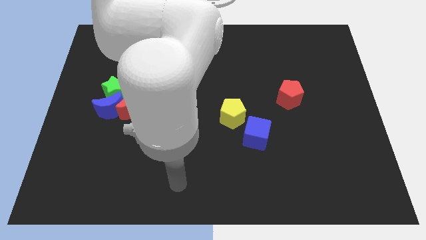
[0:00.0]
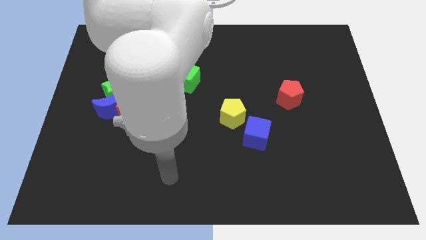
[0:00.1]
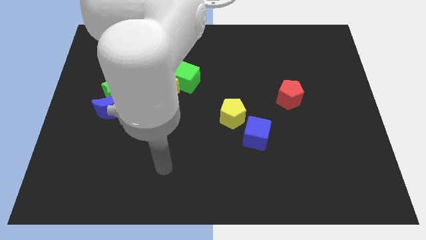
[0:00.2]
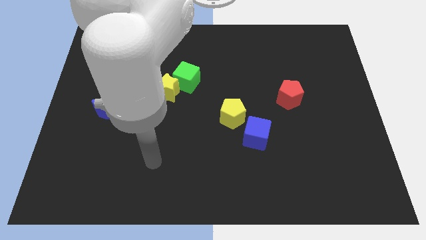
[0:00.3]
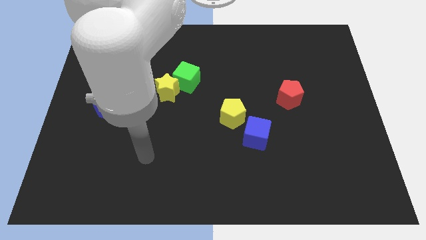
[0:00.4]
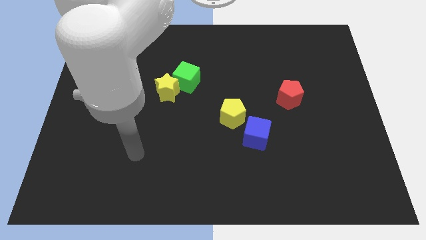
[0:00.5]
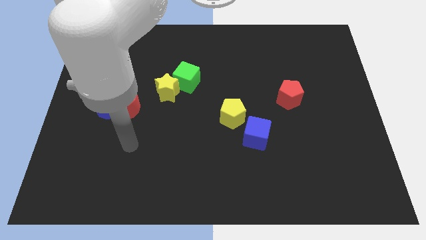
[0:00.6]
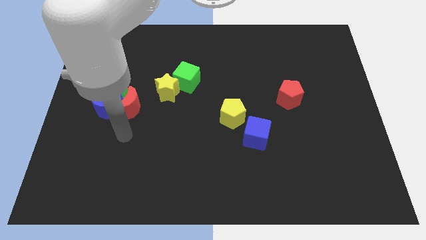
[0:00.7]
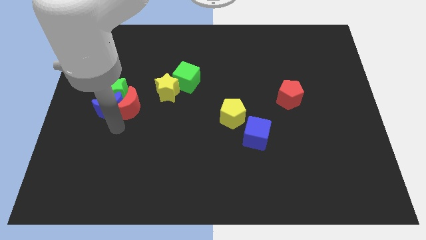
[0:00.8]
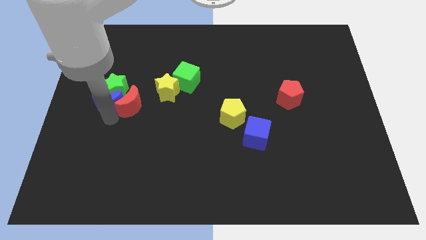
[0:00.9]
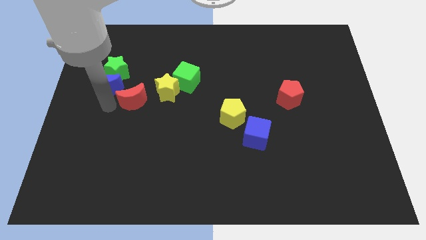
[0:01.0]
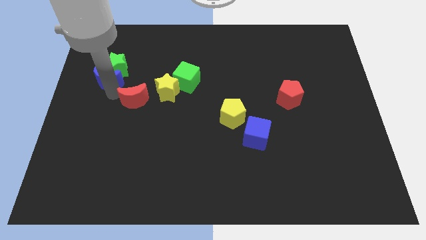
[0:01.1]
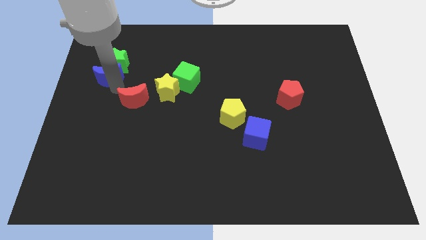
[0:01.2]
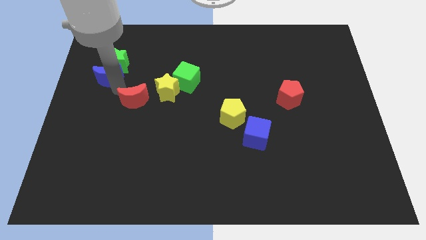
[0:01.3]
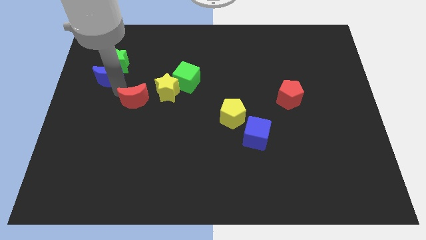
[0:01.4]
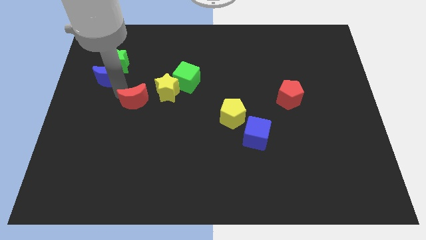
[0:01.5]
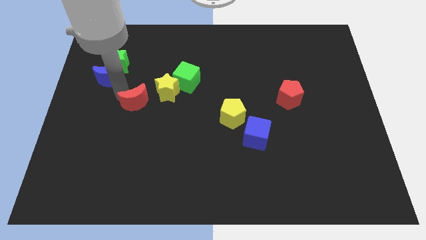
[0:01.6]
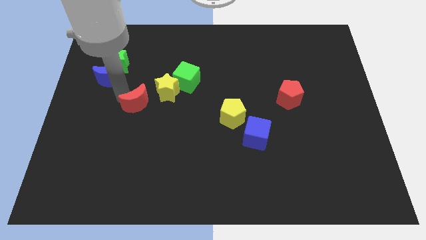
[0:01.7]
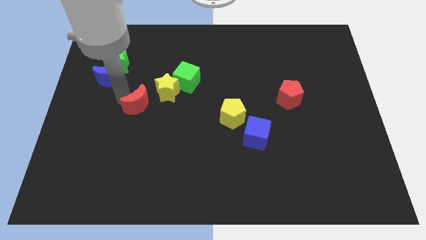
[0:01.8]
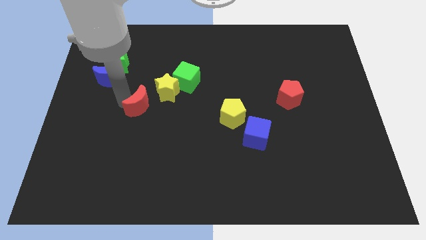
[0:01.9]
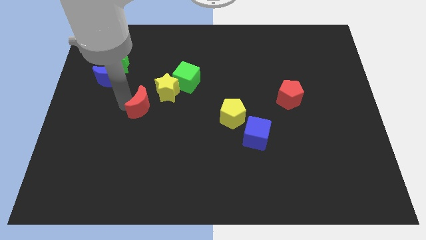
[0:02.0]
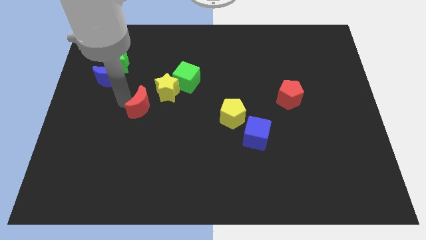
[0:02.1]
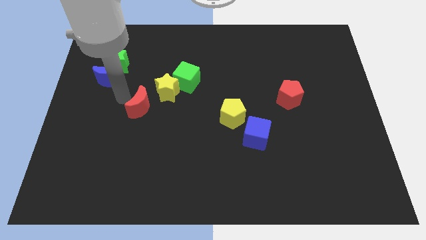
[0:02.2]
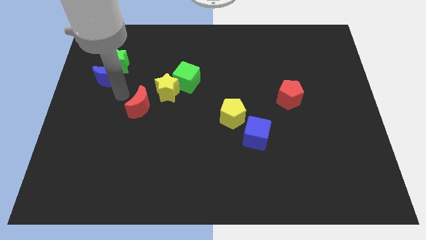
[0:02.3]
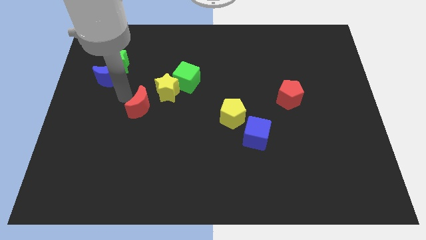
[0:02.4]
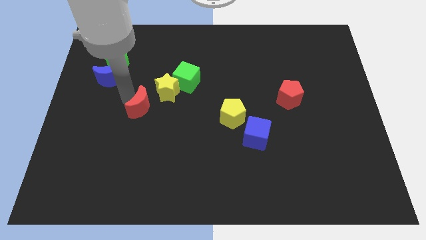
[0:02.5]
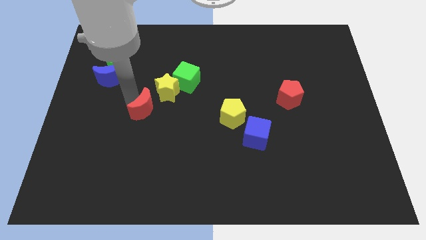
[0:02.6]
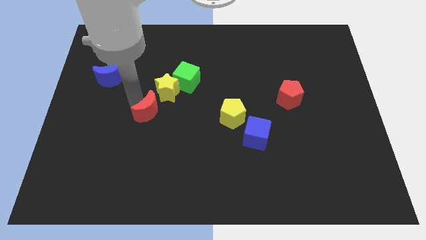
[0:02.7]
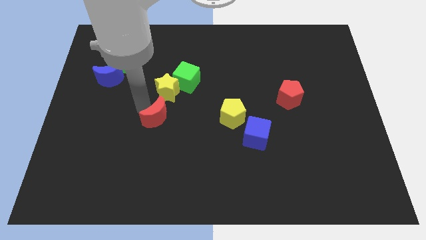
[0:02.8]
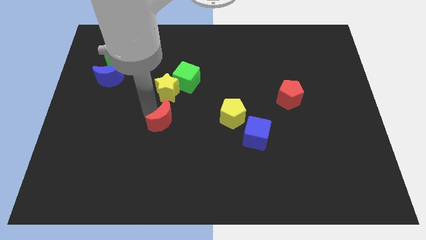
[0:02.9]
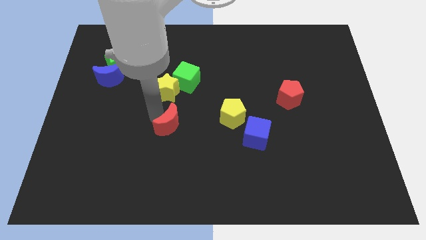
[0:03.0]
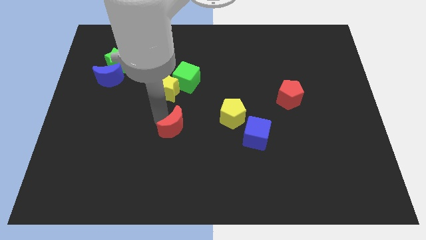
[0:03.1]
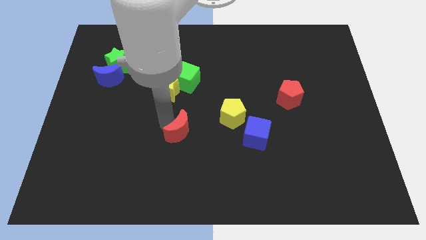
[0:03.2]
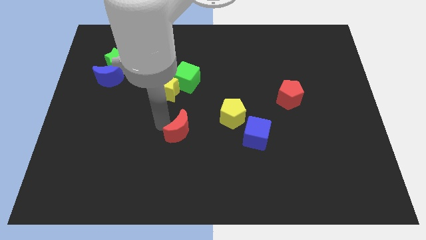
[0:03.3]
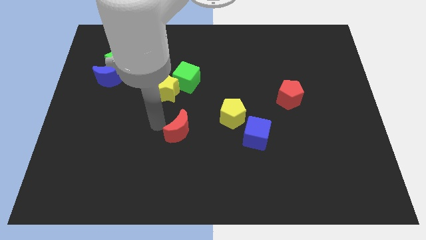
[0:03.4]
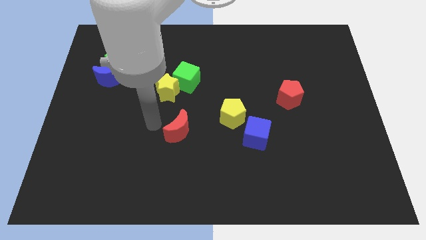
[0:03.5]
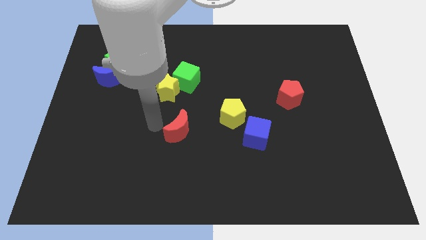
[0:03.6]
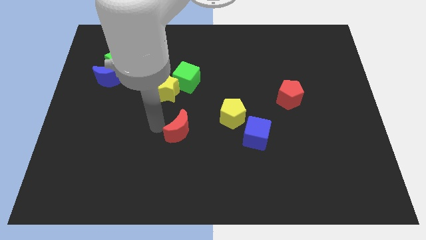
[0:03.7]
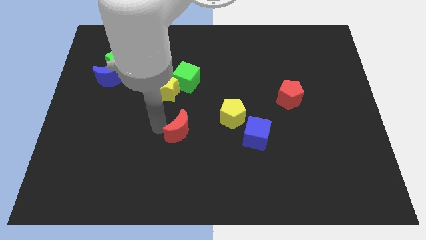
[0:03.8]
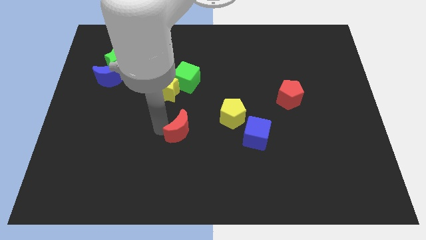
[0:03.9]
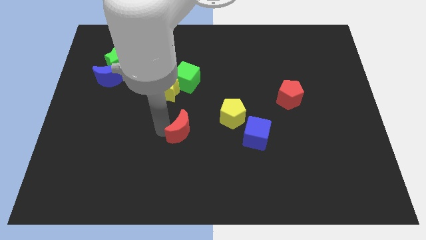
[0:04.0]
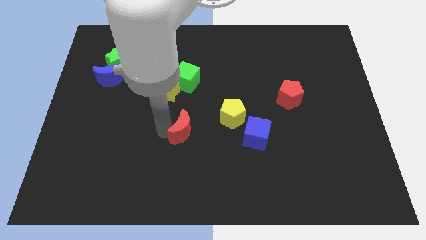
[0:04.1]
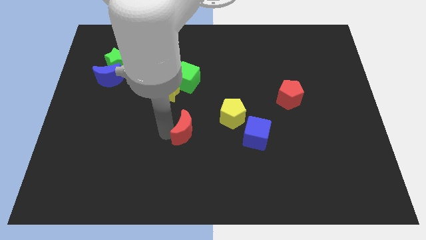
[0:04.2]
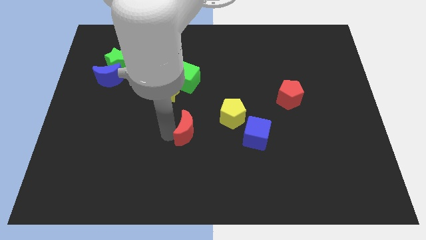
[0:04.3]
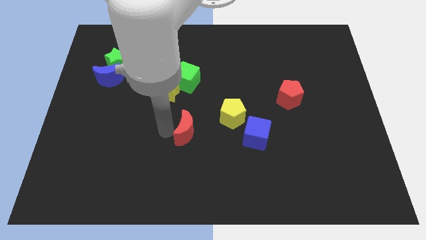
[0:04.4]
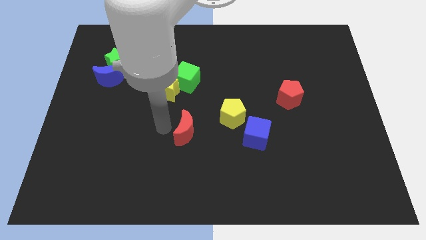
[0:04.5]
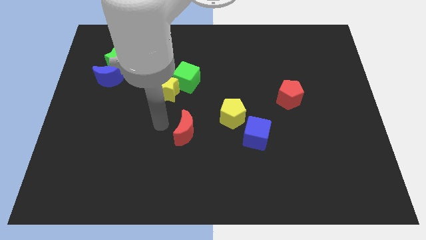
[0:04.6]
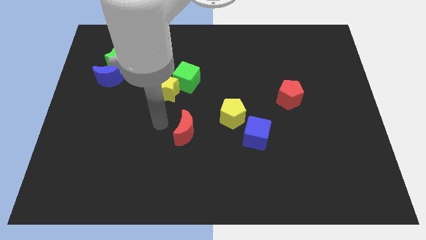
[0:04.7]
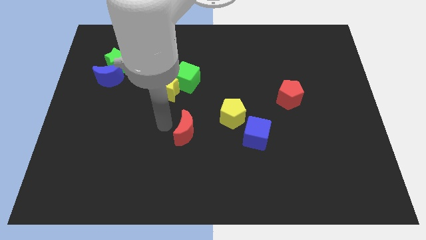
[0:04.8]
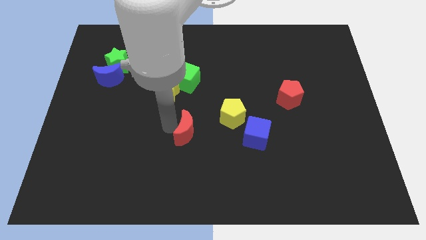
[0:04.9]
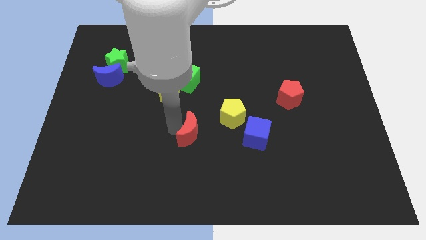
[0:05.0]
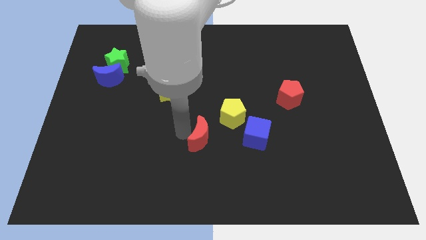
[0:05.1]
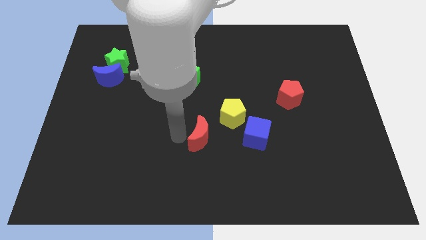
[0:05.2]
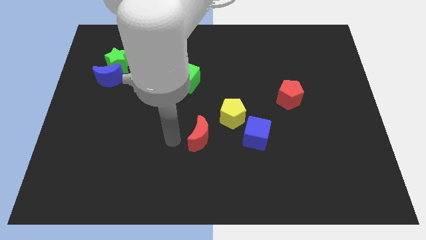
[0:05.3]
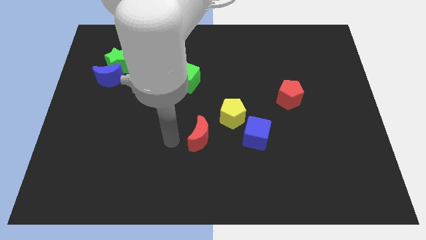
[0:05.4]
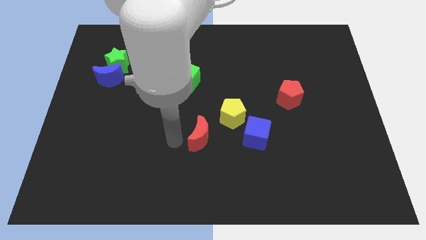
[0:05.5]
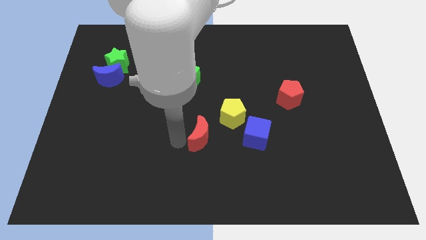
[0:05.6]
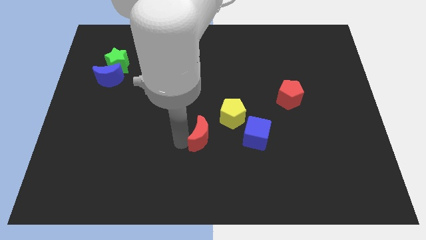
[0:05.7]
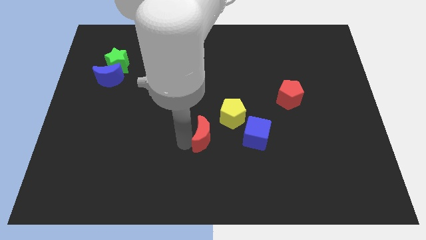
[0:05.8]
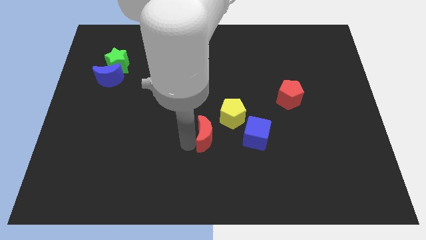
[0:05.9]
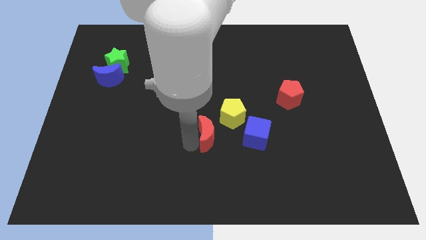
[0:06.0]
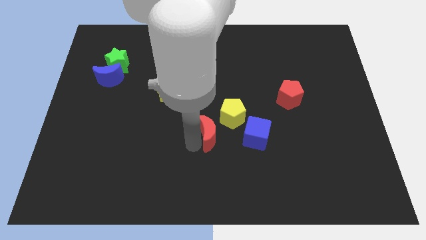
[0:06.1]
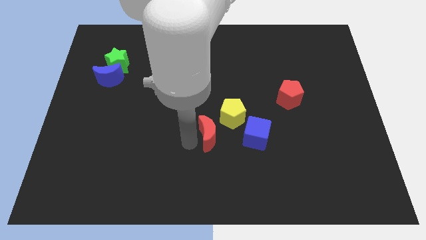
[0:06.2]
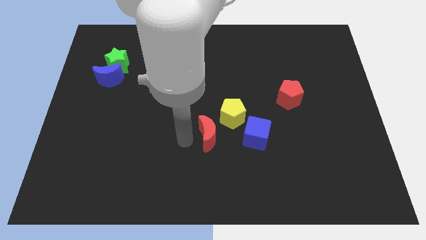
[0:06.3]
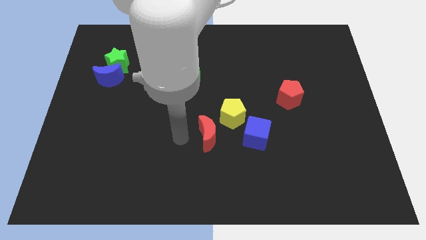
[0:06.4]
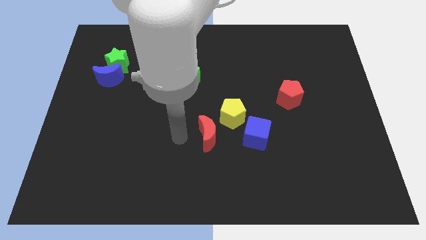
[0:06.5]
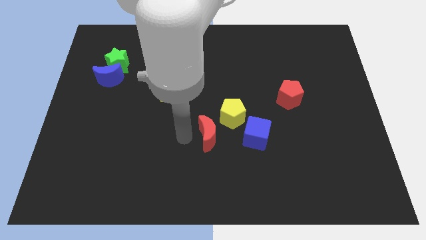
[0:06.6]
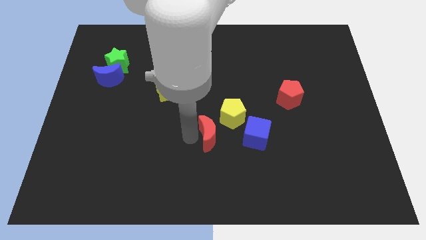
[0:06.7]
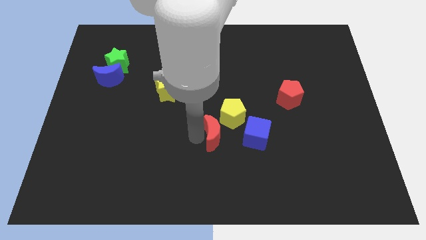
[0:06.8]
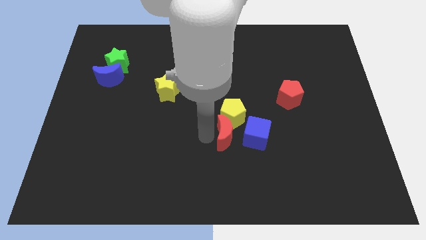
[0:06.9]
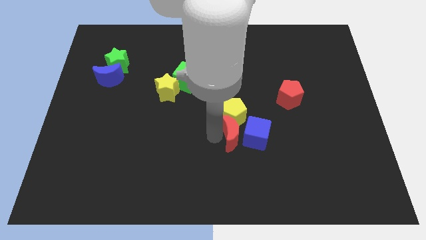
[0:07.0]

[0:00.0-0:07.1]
push the red moon towards the blue cube
